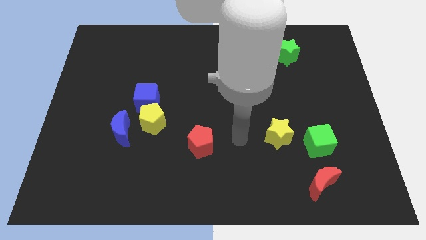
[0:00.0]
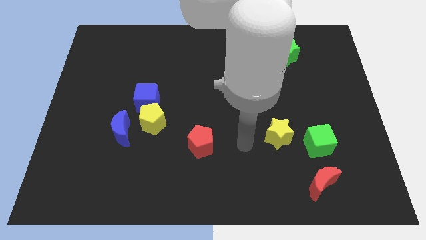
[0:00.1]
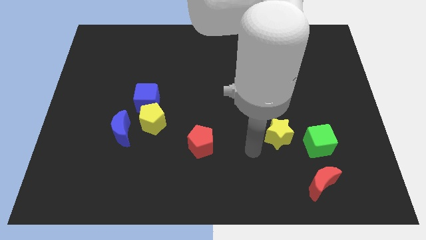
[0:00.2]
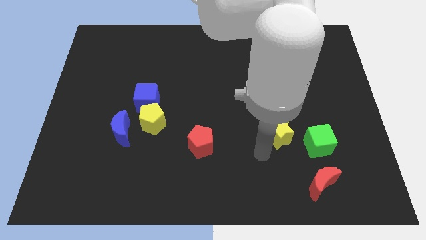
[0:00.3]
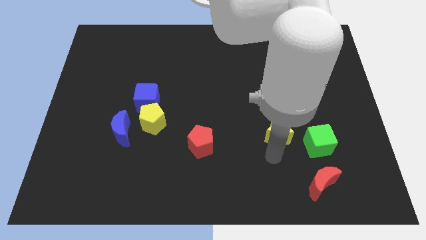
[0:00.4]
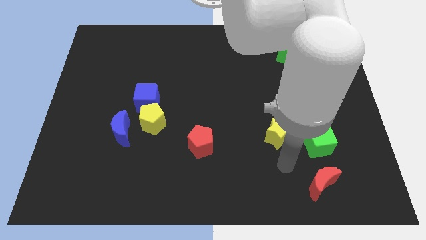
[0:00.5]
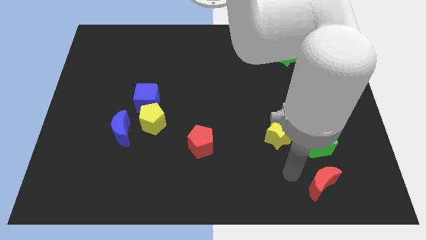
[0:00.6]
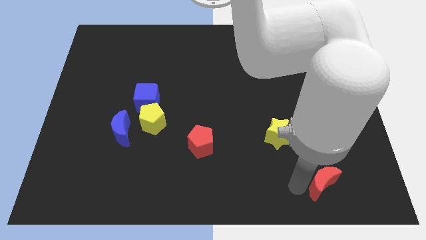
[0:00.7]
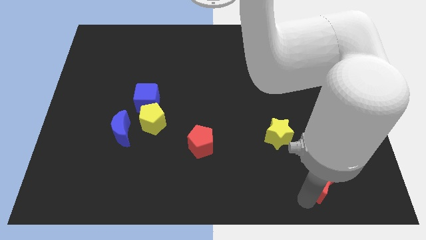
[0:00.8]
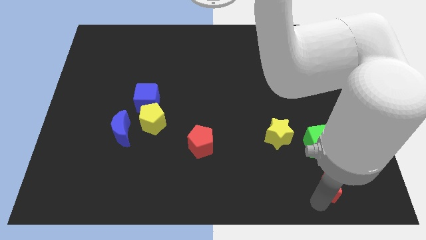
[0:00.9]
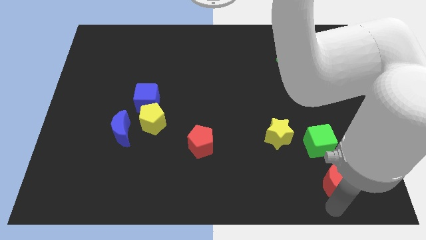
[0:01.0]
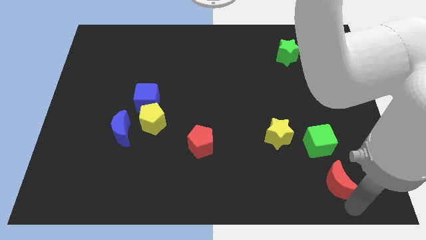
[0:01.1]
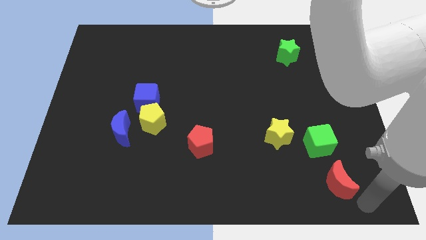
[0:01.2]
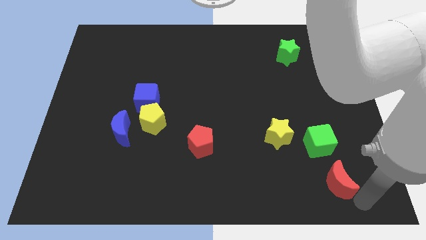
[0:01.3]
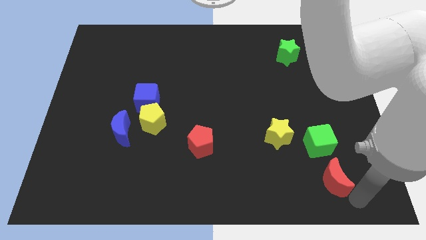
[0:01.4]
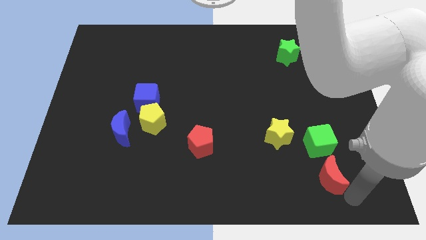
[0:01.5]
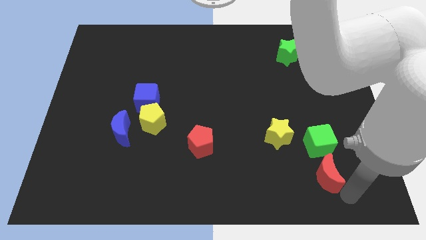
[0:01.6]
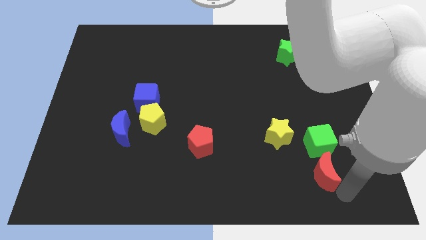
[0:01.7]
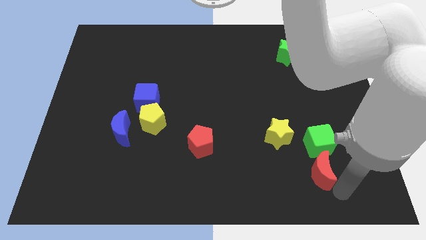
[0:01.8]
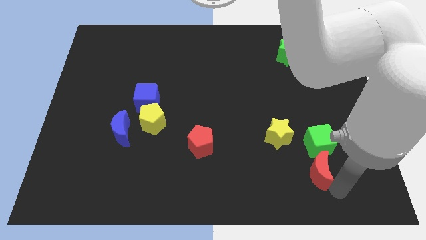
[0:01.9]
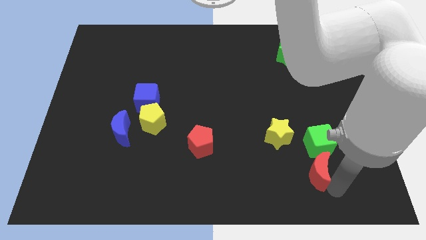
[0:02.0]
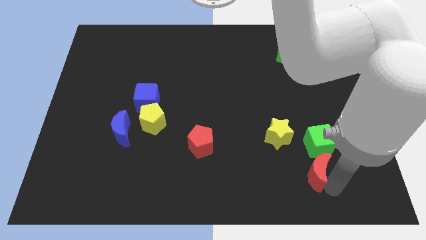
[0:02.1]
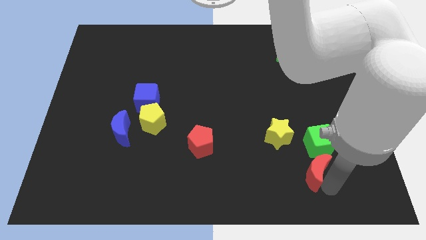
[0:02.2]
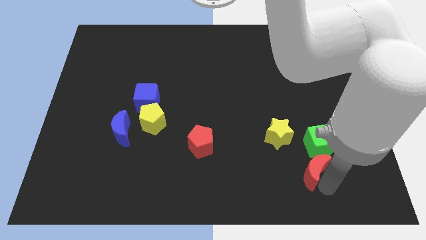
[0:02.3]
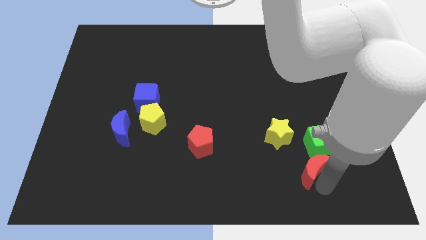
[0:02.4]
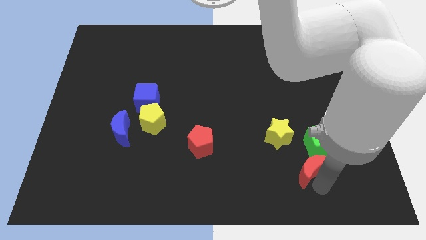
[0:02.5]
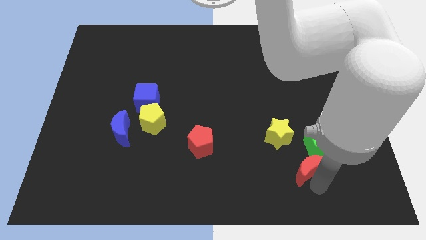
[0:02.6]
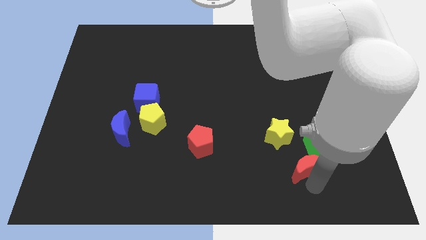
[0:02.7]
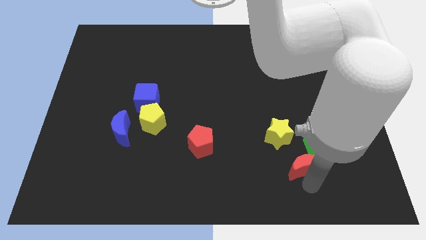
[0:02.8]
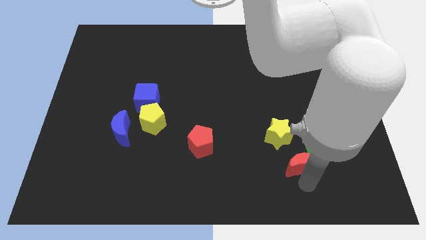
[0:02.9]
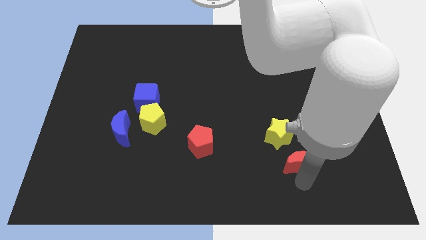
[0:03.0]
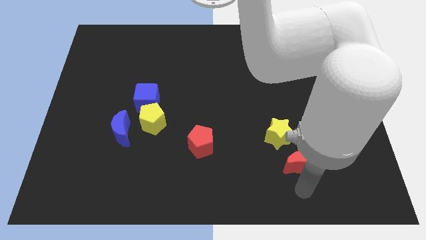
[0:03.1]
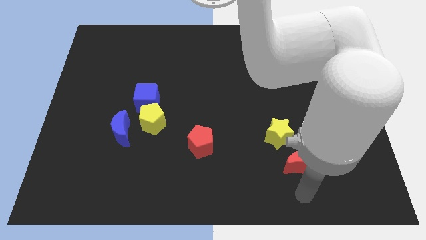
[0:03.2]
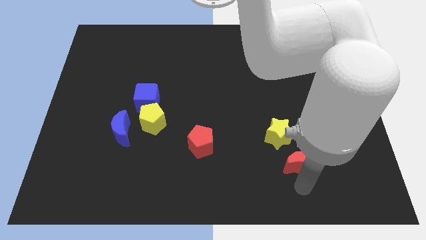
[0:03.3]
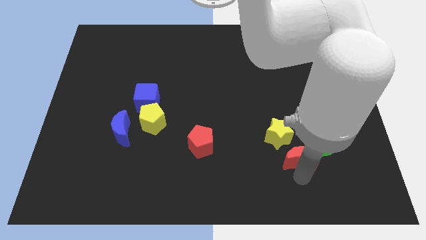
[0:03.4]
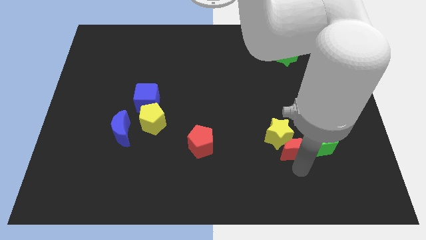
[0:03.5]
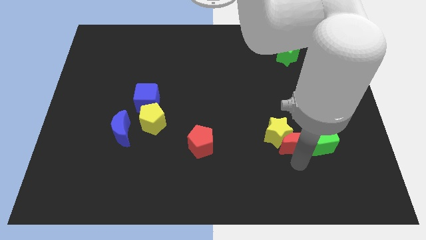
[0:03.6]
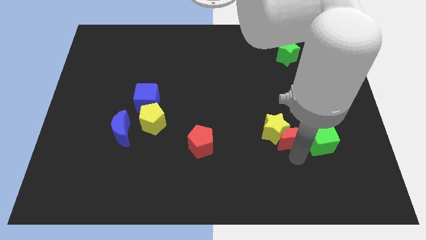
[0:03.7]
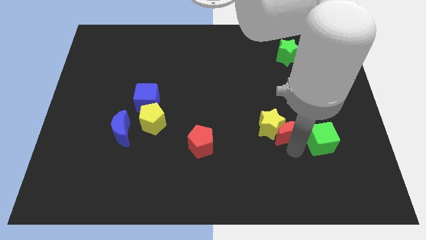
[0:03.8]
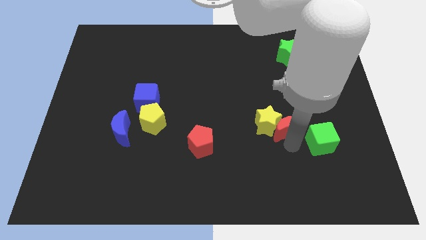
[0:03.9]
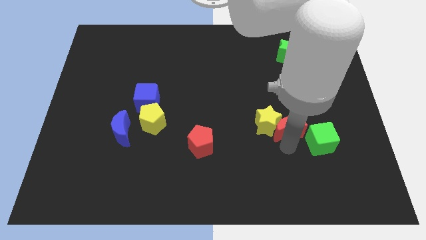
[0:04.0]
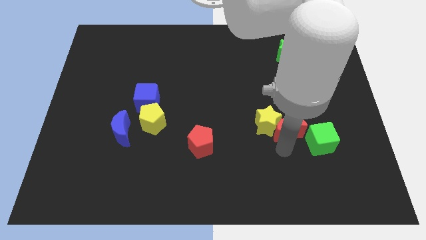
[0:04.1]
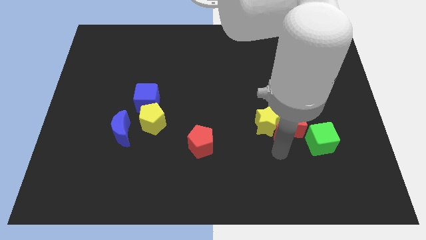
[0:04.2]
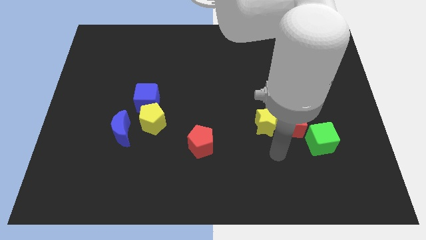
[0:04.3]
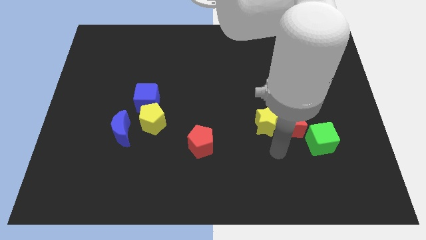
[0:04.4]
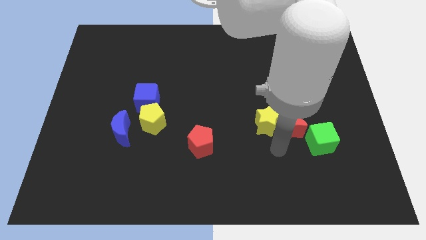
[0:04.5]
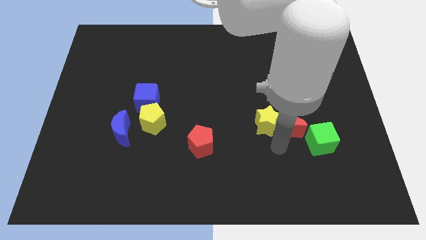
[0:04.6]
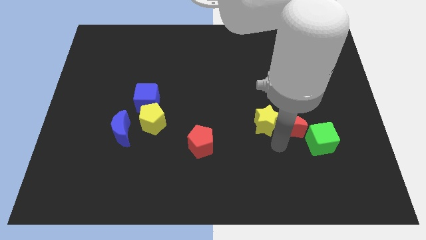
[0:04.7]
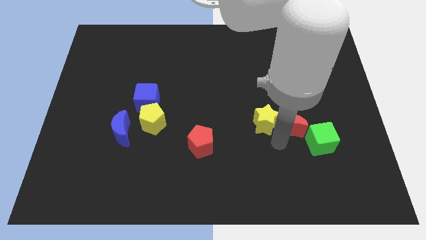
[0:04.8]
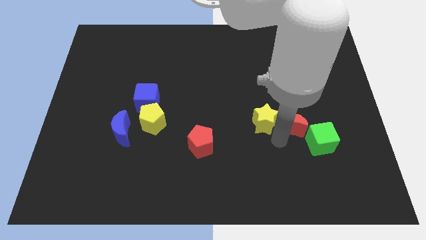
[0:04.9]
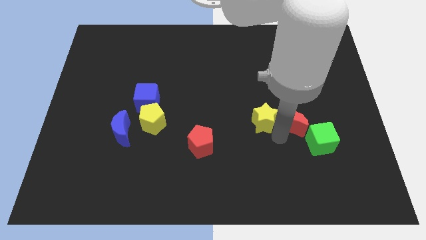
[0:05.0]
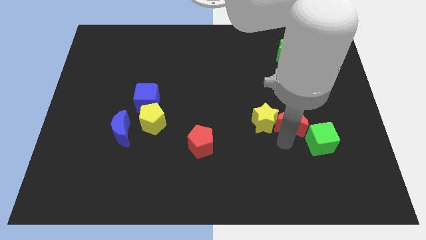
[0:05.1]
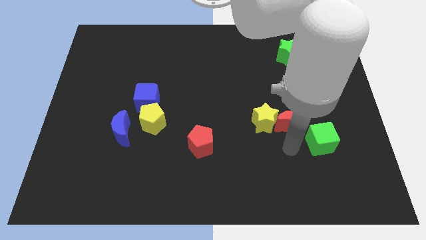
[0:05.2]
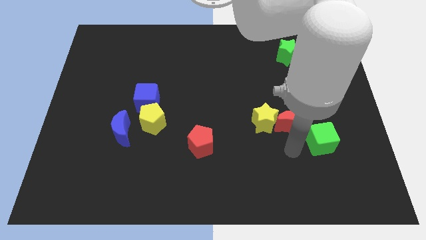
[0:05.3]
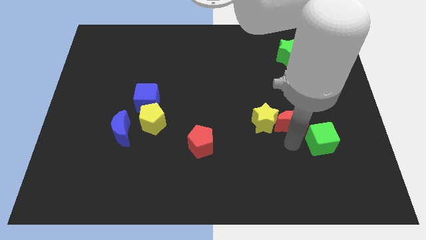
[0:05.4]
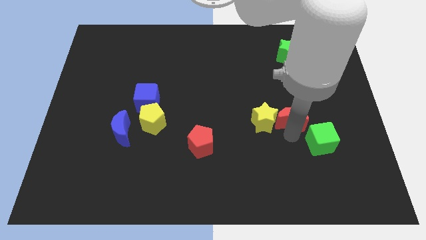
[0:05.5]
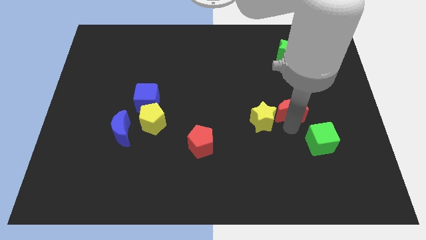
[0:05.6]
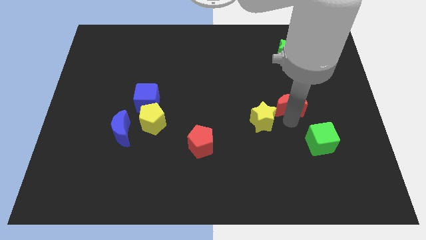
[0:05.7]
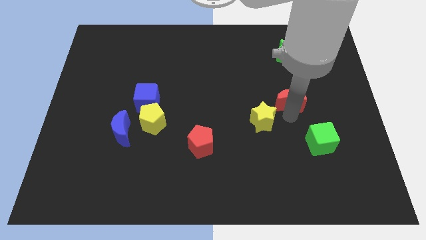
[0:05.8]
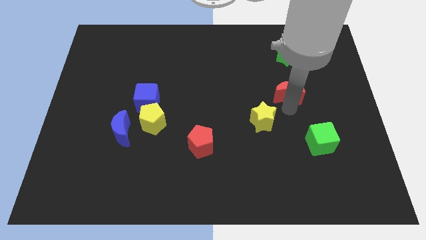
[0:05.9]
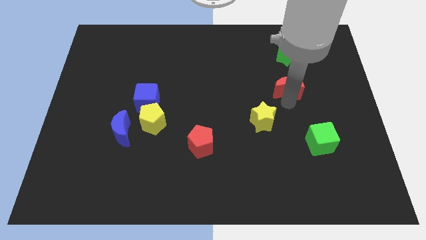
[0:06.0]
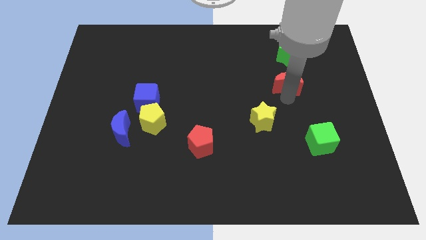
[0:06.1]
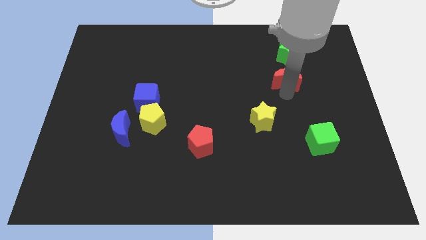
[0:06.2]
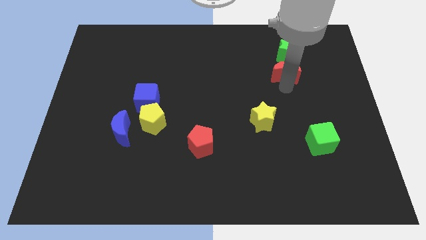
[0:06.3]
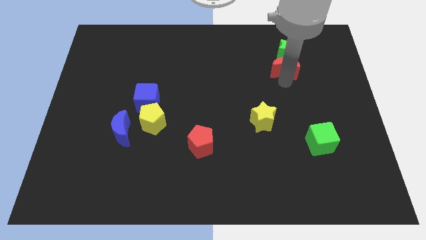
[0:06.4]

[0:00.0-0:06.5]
put the red moon towards the green star

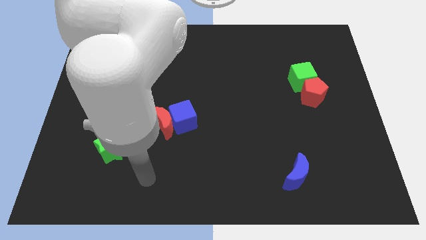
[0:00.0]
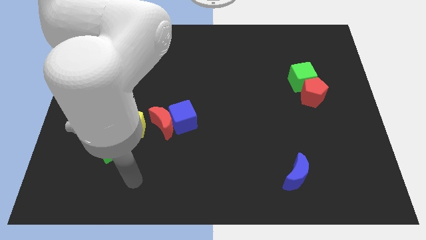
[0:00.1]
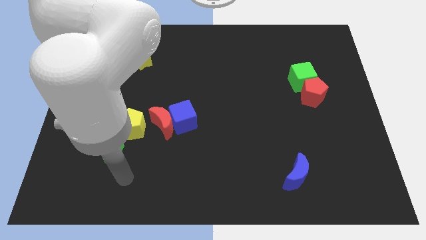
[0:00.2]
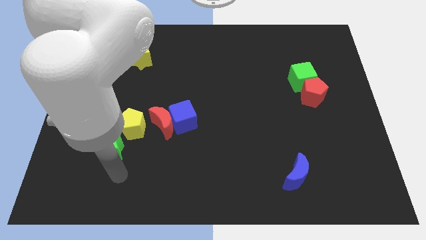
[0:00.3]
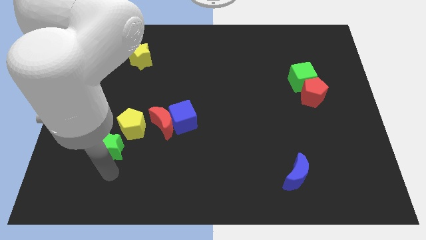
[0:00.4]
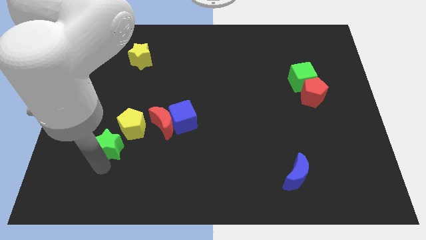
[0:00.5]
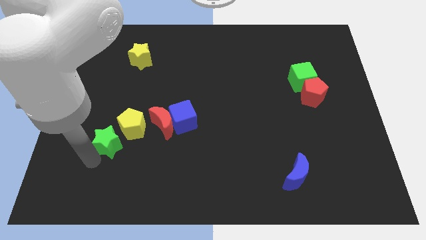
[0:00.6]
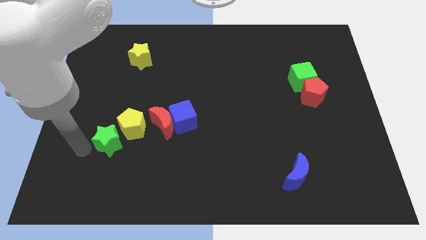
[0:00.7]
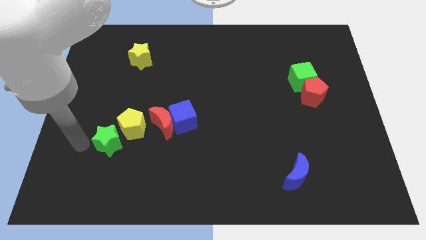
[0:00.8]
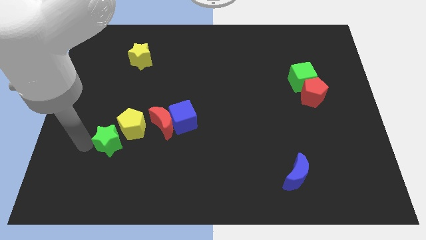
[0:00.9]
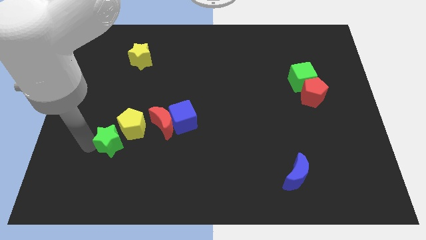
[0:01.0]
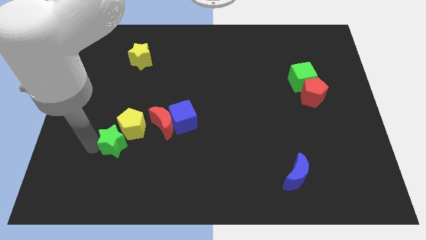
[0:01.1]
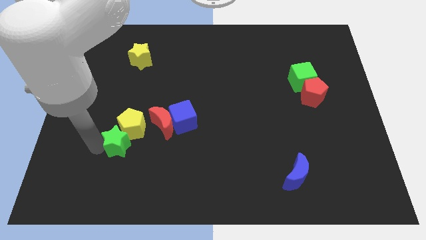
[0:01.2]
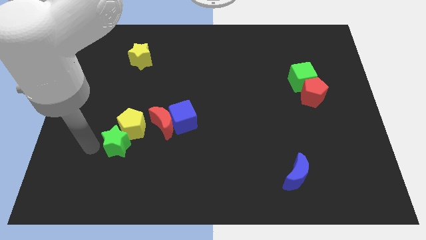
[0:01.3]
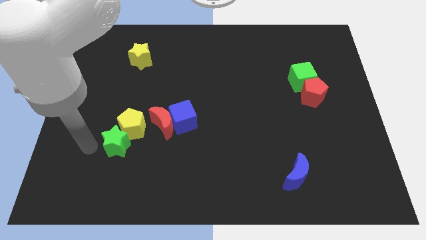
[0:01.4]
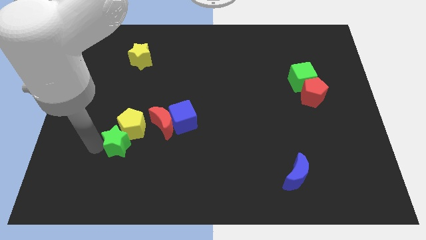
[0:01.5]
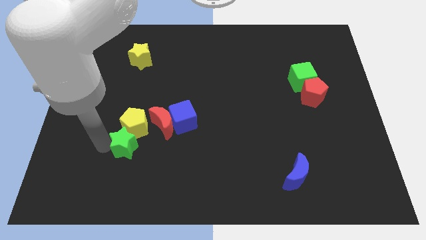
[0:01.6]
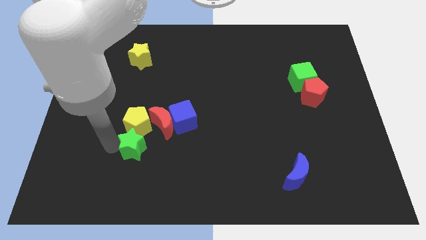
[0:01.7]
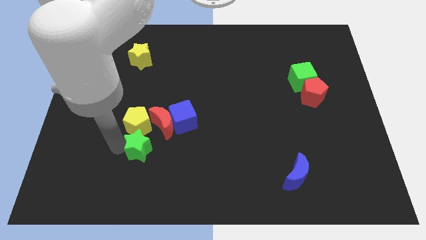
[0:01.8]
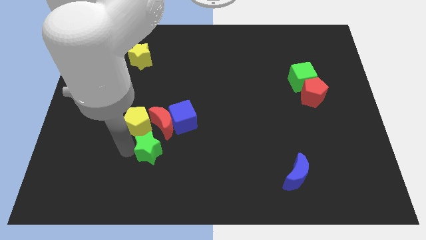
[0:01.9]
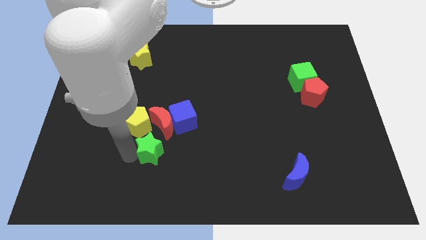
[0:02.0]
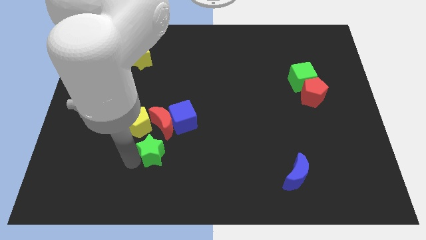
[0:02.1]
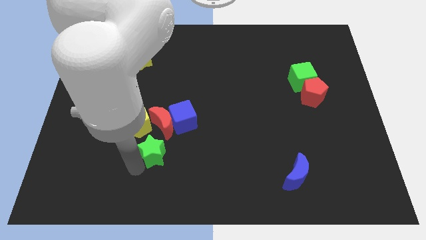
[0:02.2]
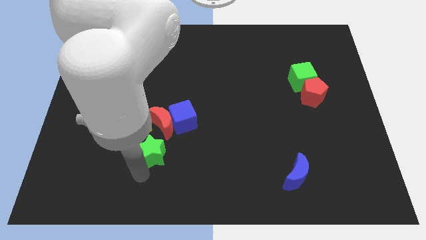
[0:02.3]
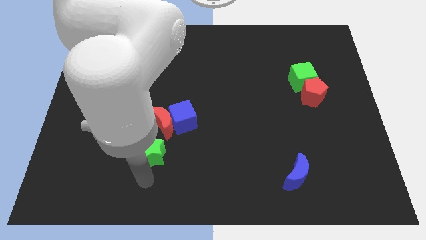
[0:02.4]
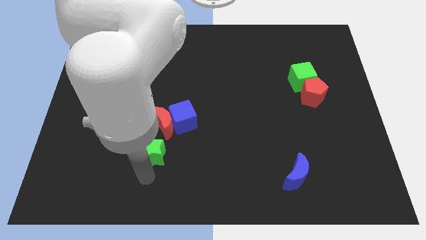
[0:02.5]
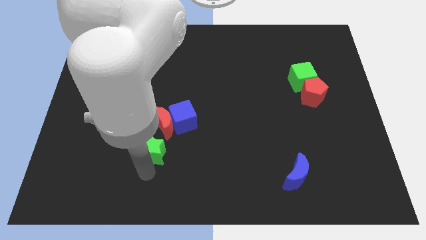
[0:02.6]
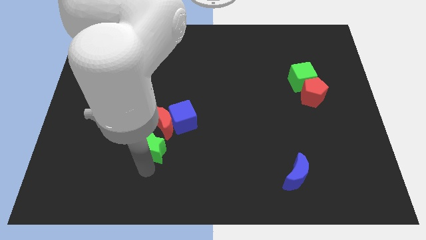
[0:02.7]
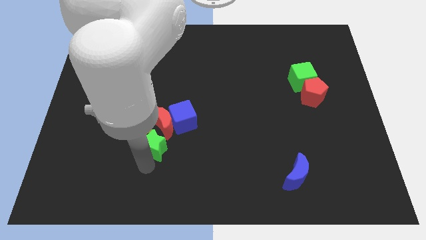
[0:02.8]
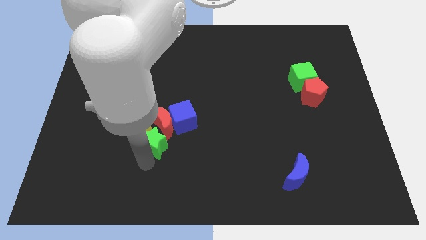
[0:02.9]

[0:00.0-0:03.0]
move the green star close to the red moon
